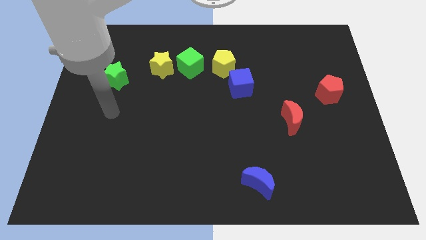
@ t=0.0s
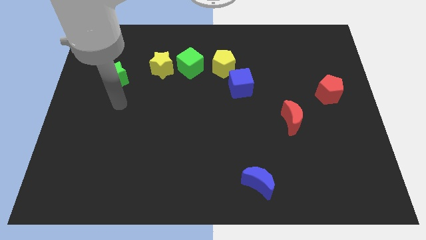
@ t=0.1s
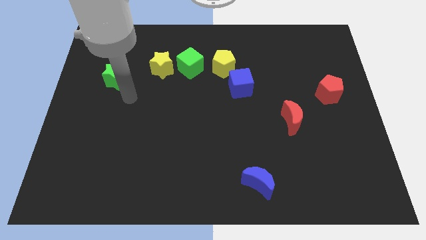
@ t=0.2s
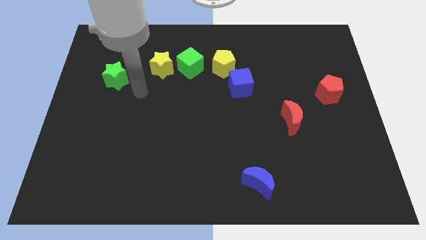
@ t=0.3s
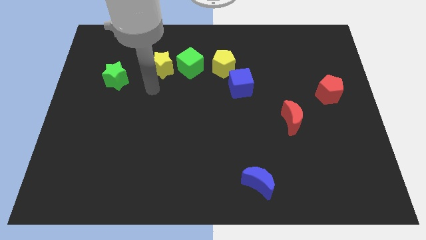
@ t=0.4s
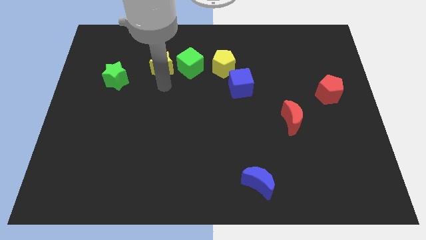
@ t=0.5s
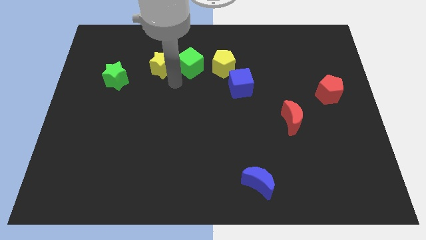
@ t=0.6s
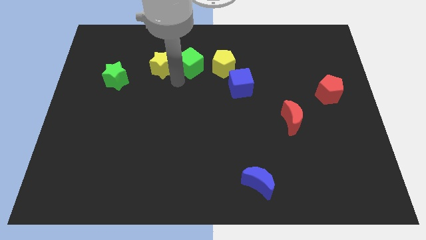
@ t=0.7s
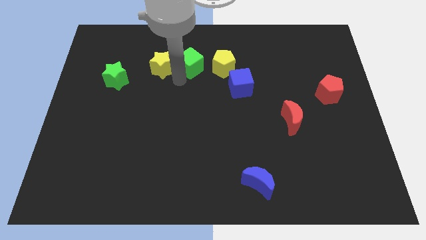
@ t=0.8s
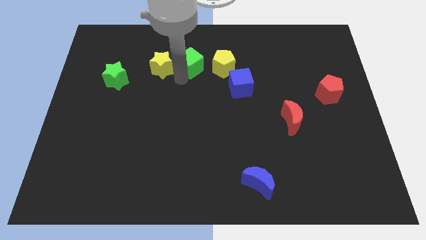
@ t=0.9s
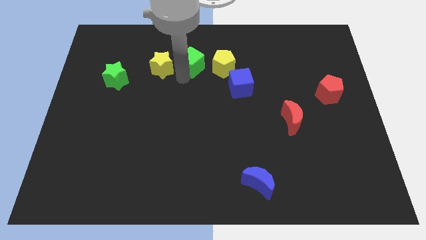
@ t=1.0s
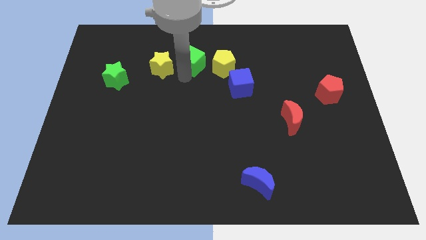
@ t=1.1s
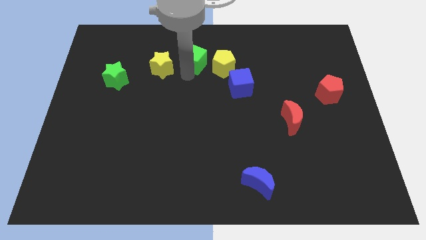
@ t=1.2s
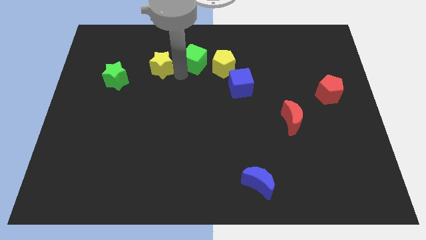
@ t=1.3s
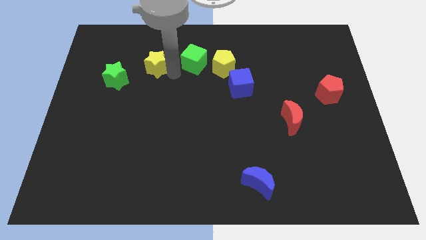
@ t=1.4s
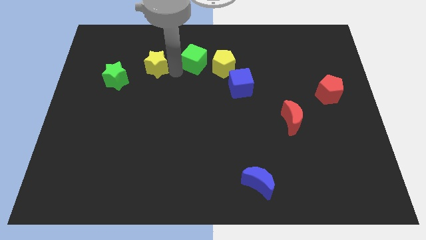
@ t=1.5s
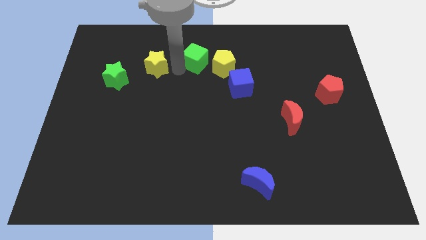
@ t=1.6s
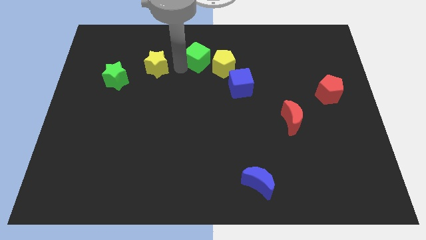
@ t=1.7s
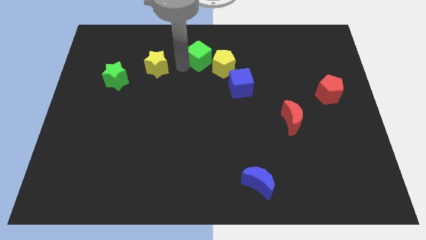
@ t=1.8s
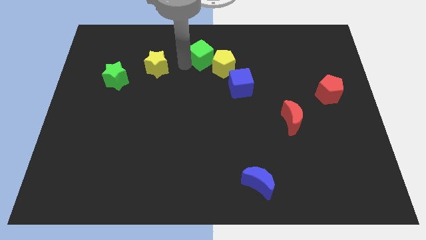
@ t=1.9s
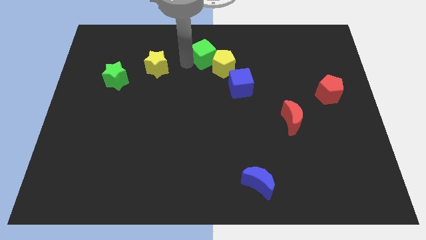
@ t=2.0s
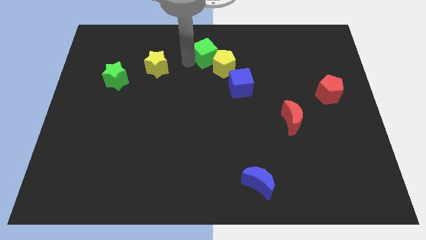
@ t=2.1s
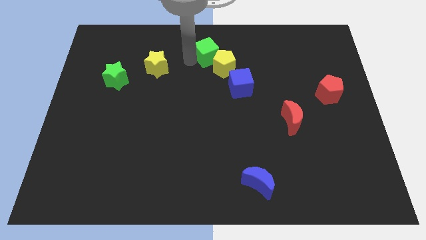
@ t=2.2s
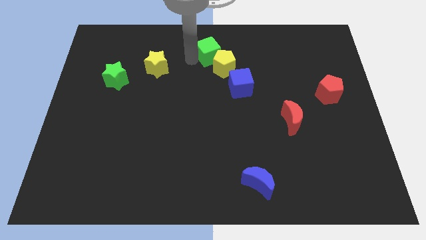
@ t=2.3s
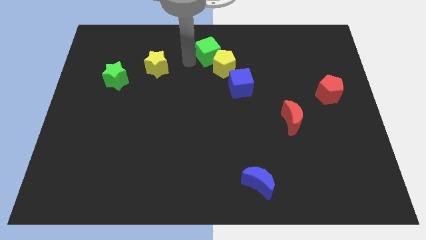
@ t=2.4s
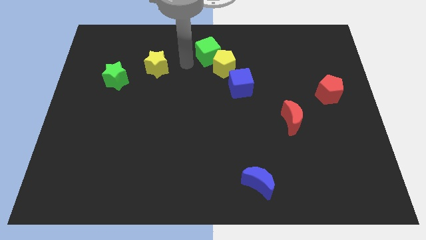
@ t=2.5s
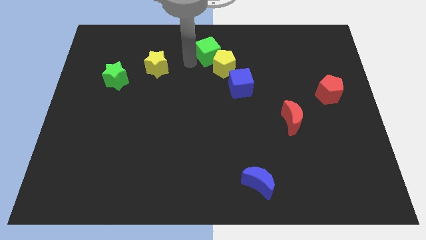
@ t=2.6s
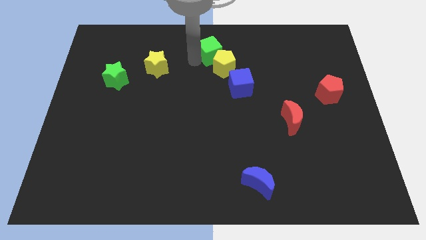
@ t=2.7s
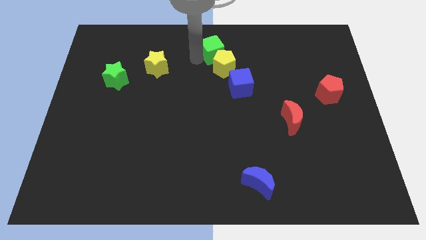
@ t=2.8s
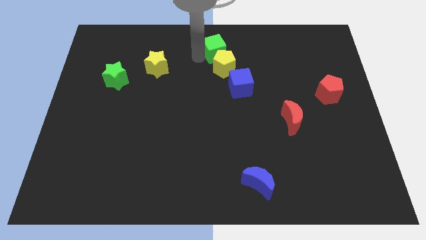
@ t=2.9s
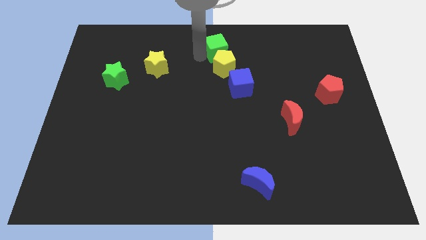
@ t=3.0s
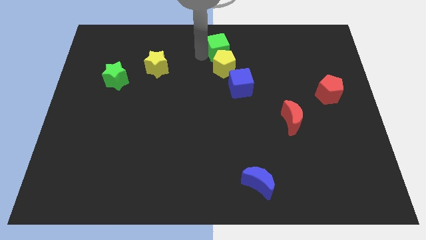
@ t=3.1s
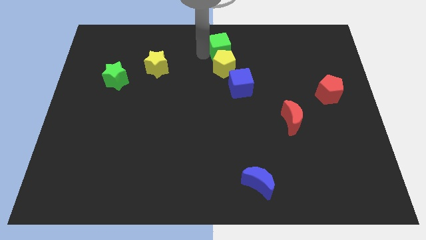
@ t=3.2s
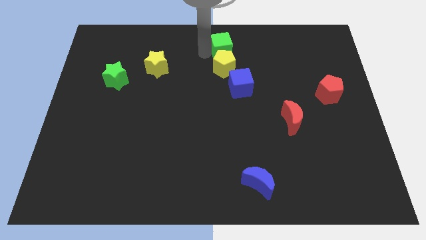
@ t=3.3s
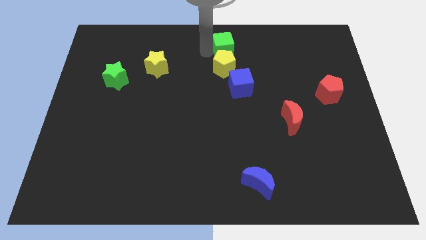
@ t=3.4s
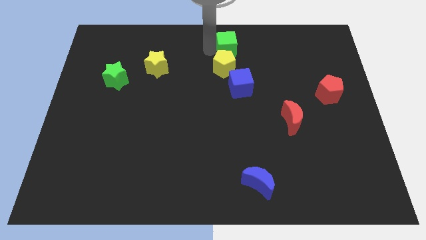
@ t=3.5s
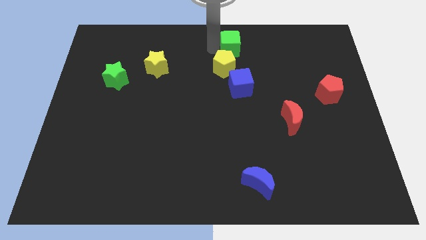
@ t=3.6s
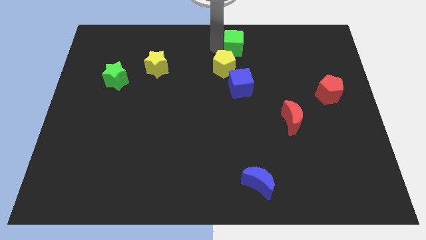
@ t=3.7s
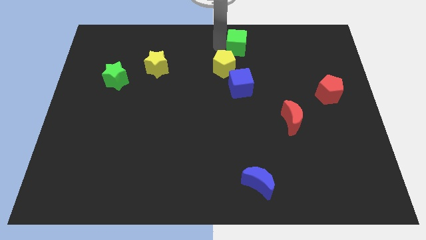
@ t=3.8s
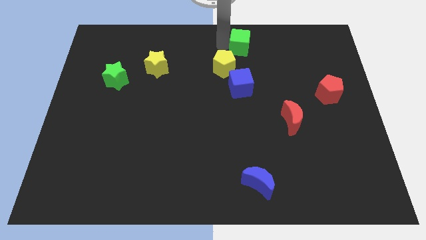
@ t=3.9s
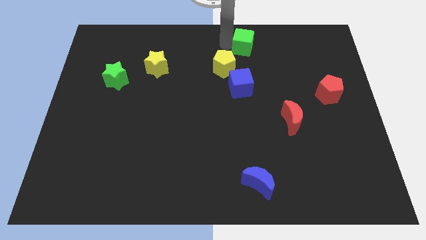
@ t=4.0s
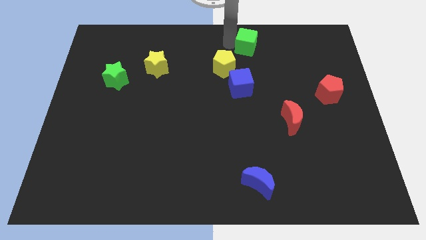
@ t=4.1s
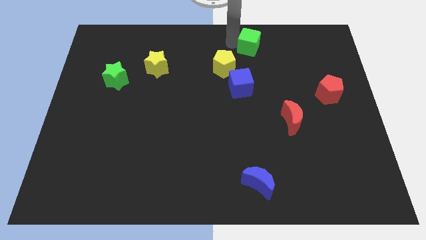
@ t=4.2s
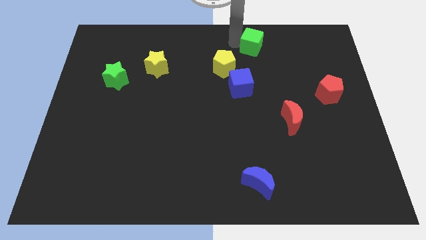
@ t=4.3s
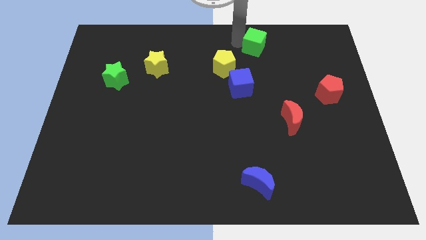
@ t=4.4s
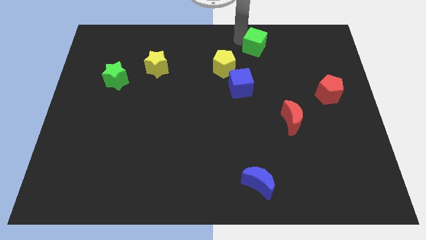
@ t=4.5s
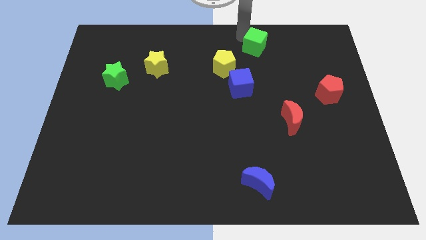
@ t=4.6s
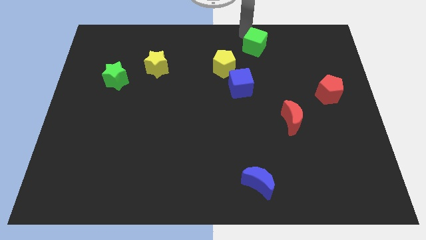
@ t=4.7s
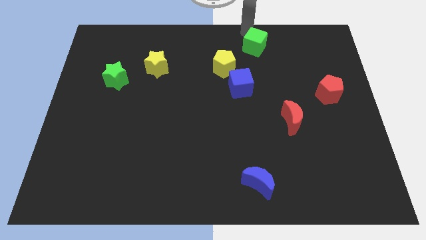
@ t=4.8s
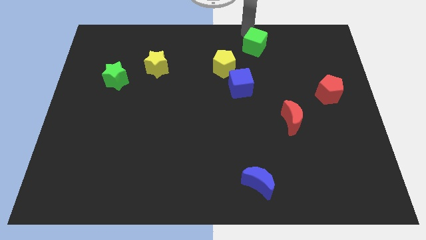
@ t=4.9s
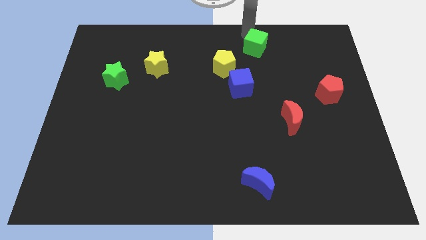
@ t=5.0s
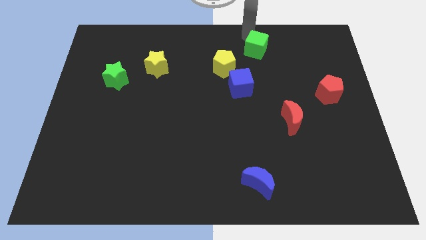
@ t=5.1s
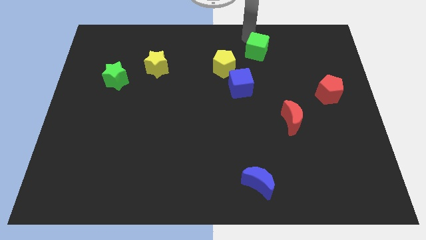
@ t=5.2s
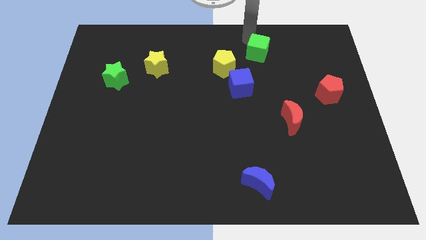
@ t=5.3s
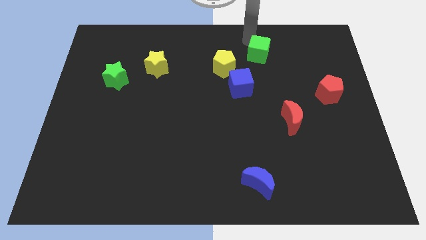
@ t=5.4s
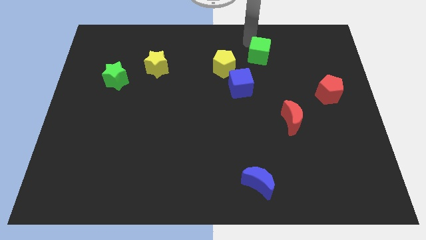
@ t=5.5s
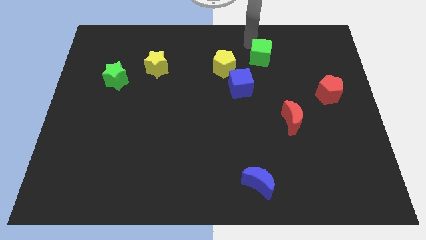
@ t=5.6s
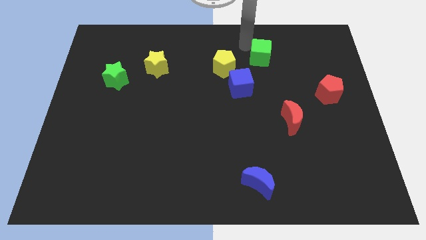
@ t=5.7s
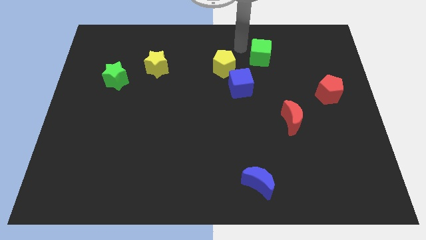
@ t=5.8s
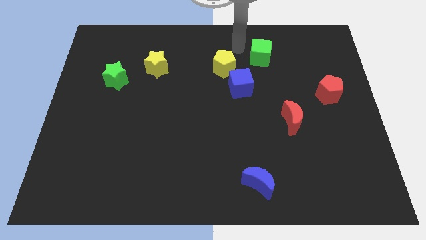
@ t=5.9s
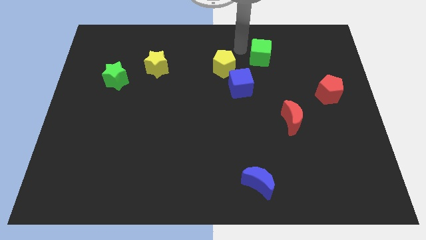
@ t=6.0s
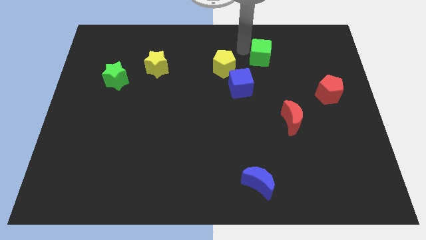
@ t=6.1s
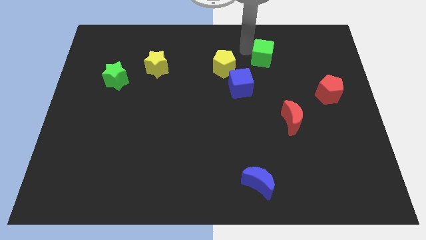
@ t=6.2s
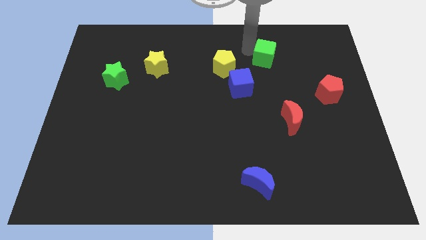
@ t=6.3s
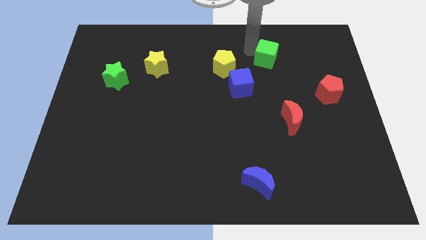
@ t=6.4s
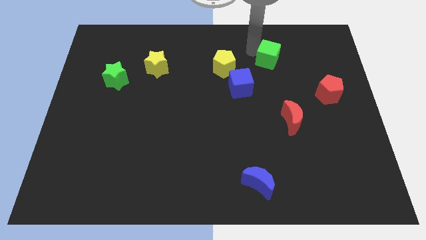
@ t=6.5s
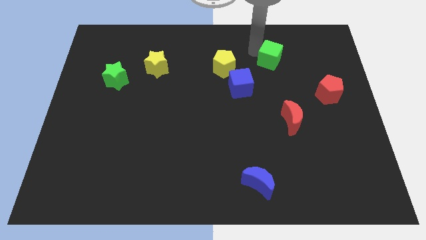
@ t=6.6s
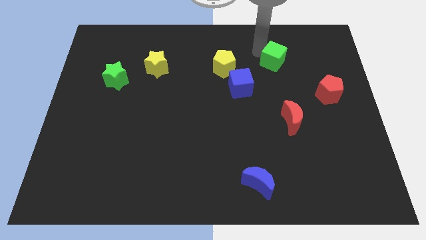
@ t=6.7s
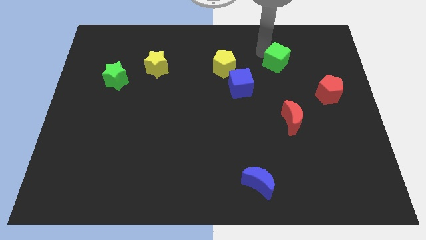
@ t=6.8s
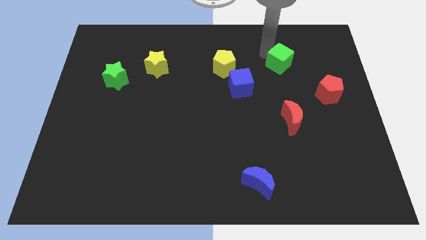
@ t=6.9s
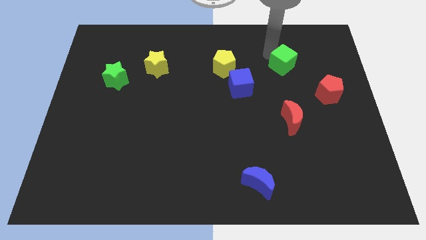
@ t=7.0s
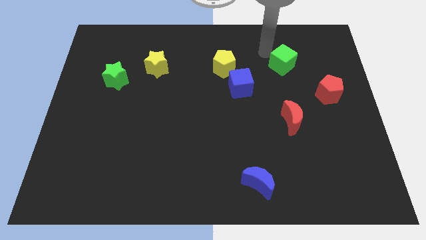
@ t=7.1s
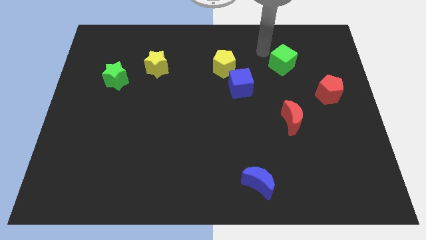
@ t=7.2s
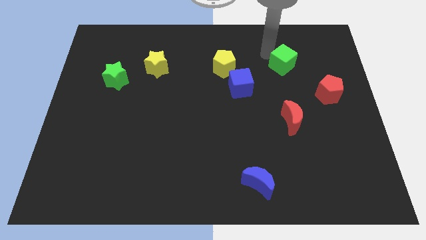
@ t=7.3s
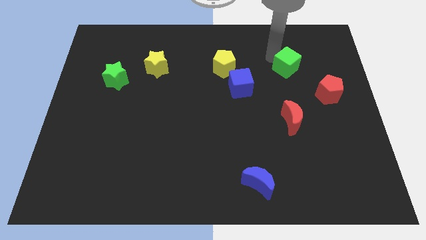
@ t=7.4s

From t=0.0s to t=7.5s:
push the green cube to the top left side of the red pentagon
